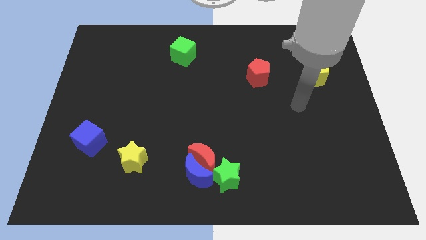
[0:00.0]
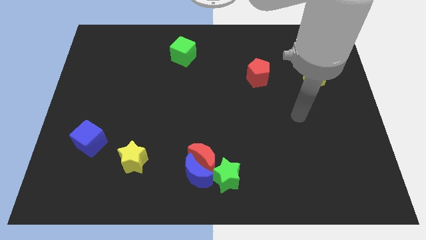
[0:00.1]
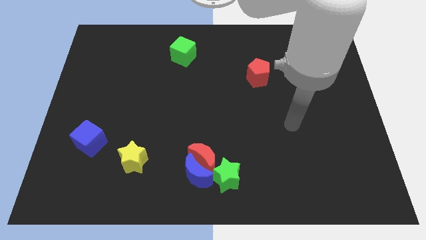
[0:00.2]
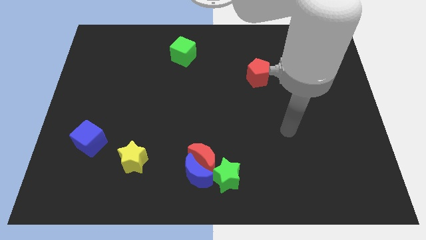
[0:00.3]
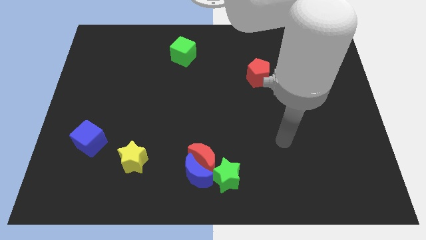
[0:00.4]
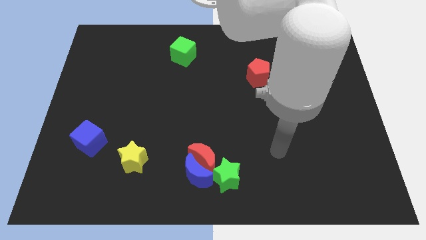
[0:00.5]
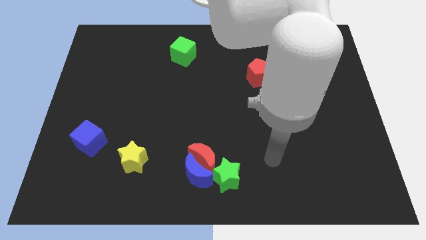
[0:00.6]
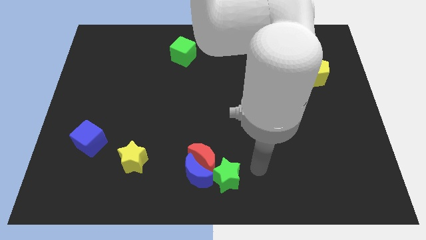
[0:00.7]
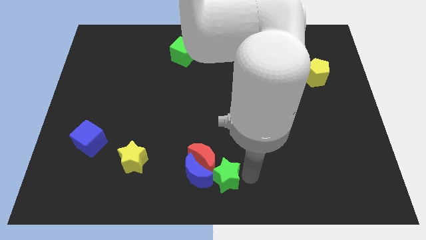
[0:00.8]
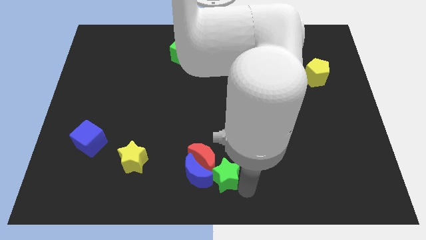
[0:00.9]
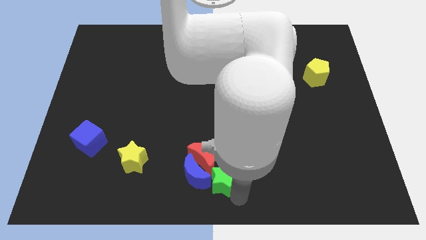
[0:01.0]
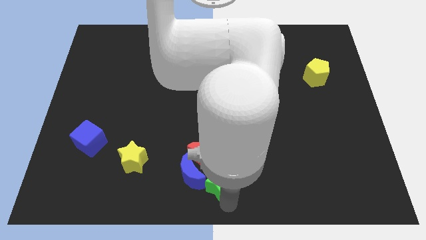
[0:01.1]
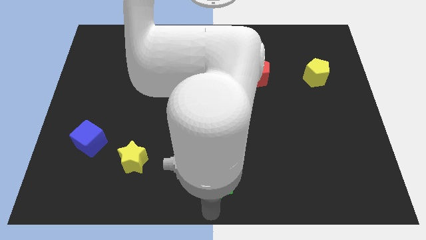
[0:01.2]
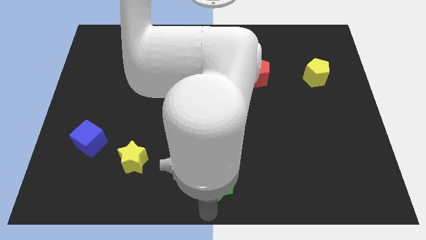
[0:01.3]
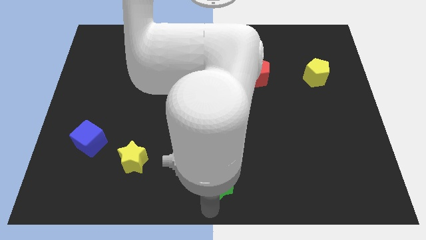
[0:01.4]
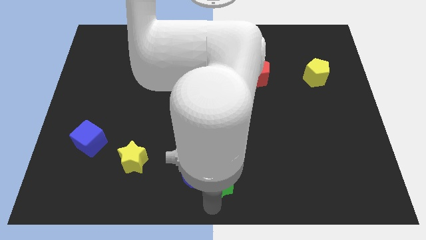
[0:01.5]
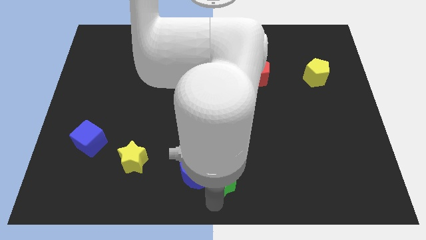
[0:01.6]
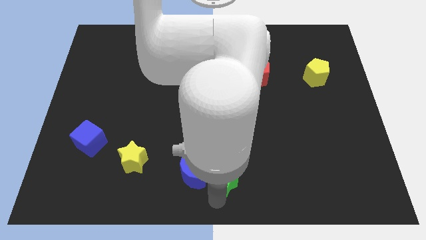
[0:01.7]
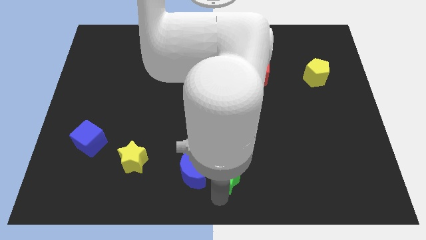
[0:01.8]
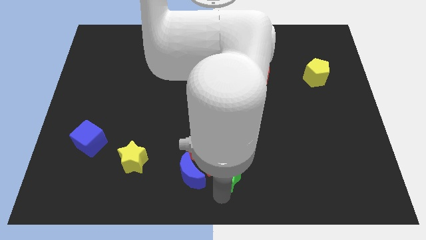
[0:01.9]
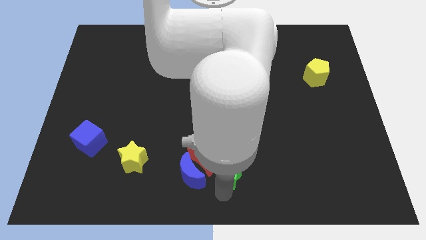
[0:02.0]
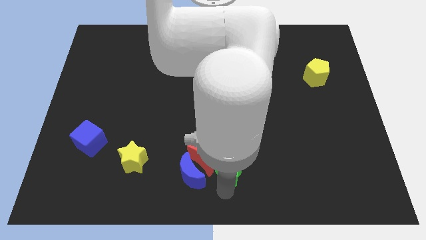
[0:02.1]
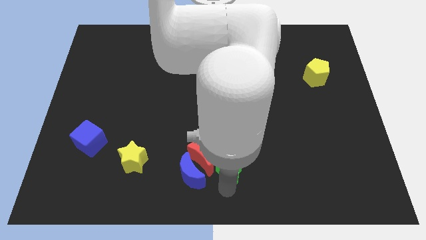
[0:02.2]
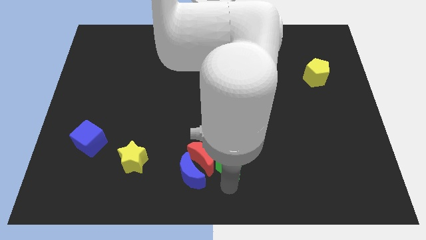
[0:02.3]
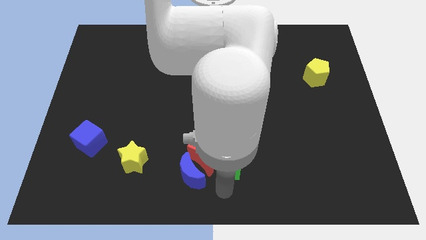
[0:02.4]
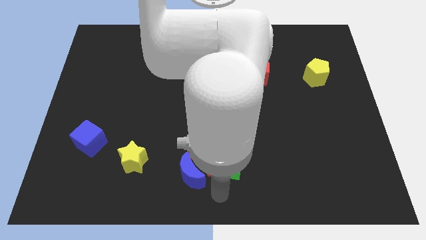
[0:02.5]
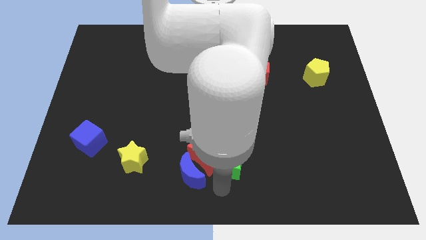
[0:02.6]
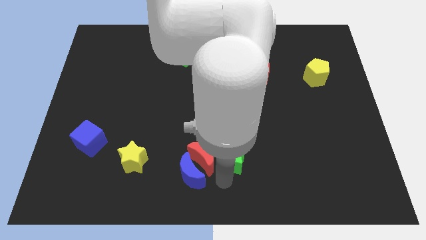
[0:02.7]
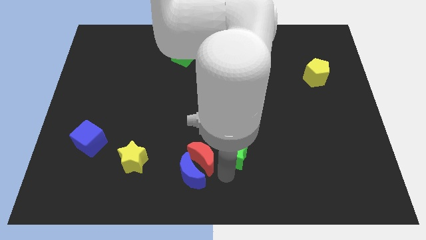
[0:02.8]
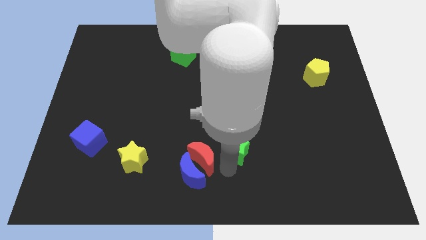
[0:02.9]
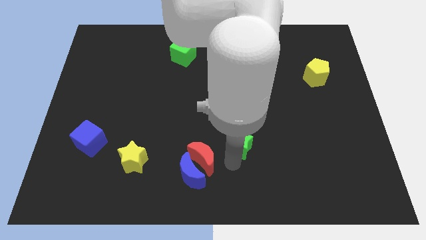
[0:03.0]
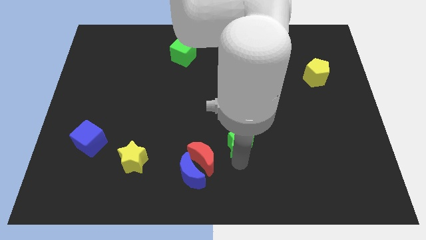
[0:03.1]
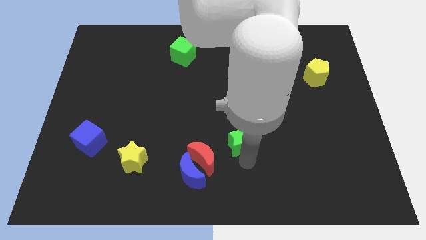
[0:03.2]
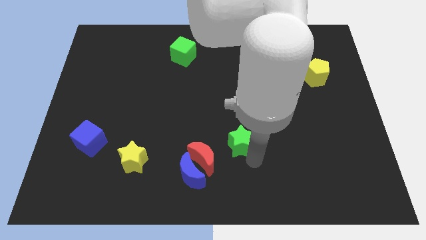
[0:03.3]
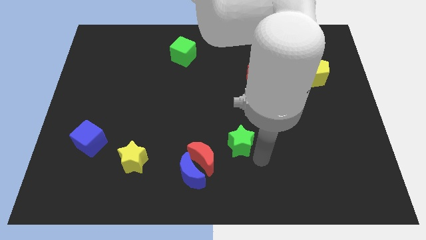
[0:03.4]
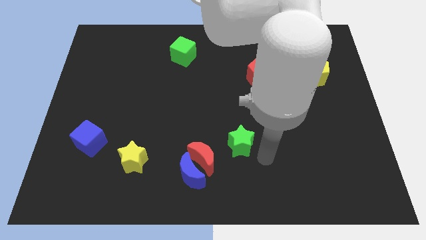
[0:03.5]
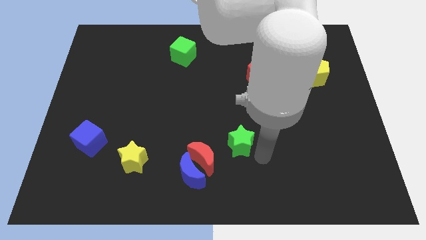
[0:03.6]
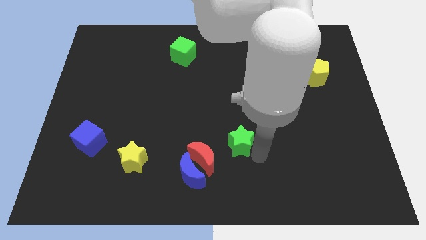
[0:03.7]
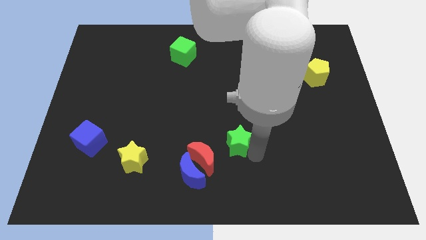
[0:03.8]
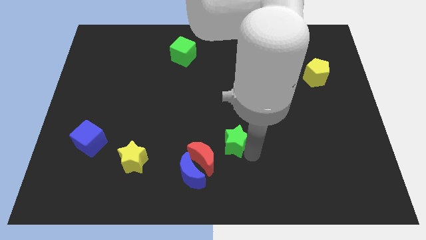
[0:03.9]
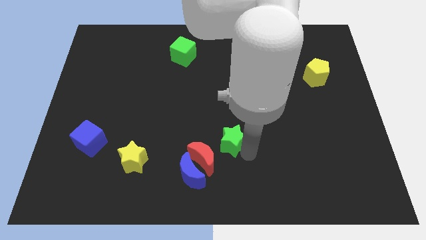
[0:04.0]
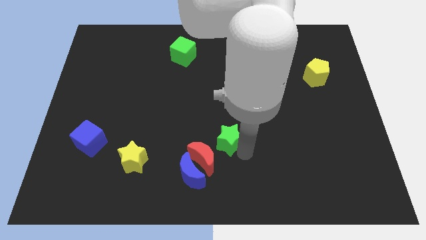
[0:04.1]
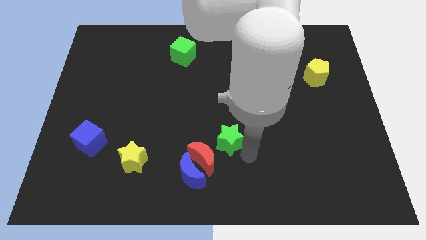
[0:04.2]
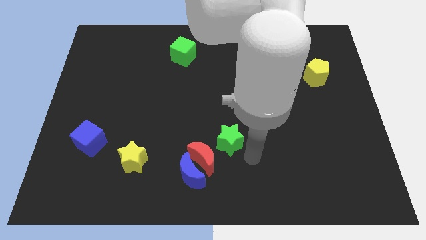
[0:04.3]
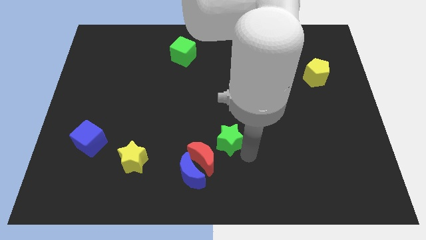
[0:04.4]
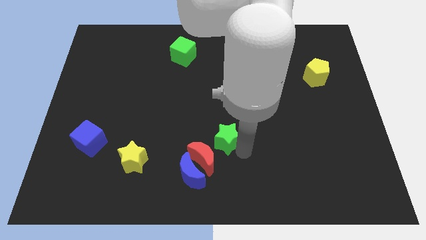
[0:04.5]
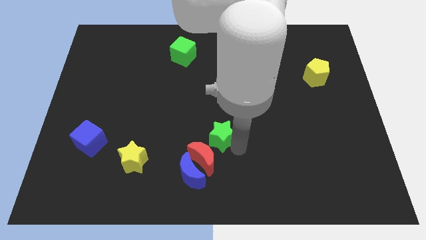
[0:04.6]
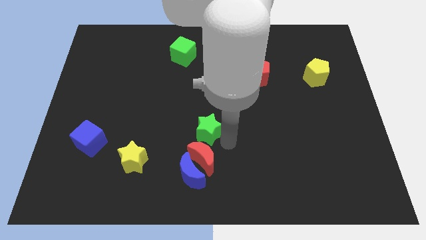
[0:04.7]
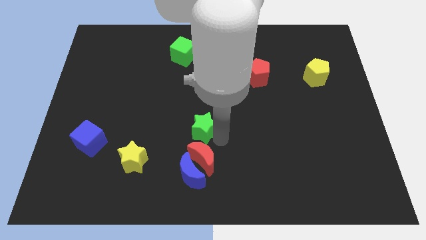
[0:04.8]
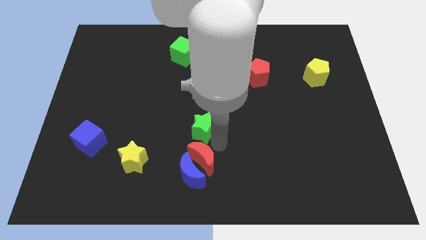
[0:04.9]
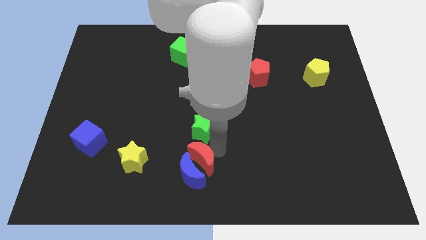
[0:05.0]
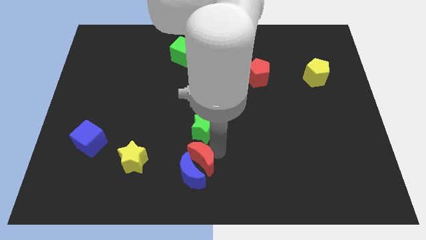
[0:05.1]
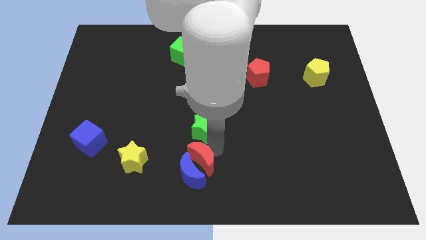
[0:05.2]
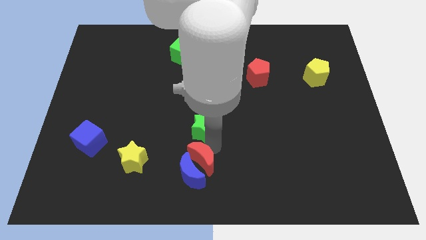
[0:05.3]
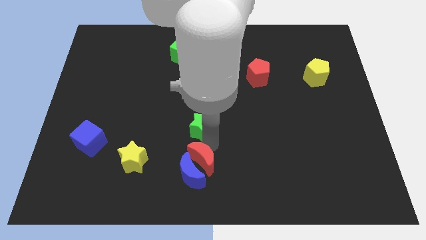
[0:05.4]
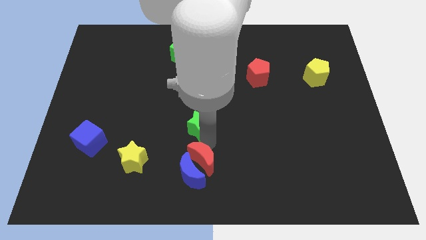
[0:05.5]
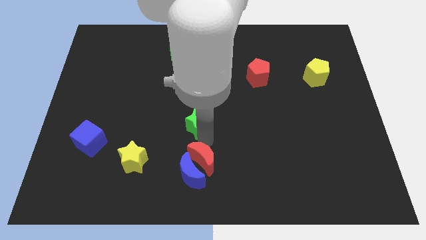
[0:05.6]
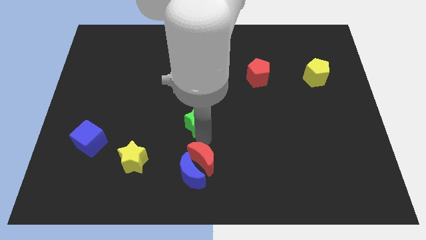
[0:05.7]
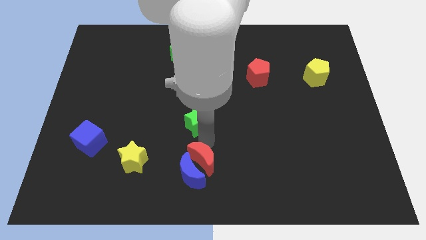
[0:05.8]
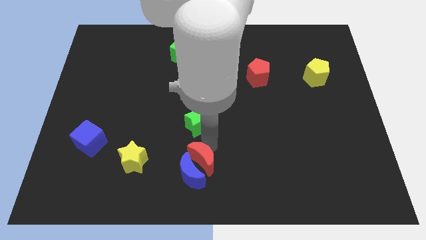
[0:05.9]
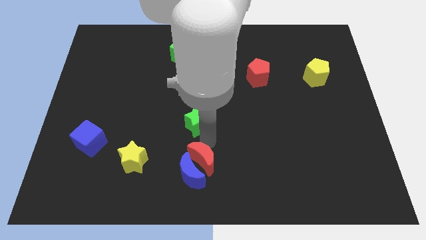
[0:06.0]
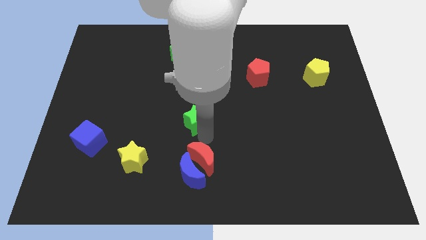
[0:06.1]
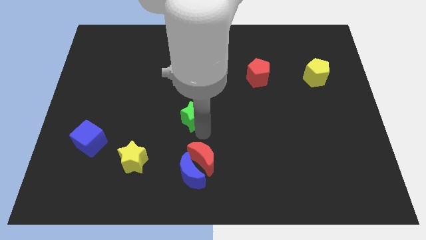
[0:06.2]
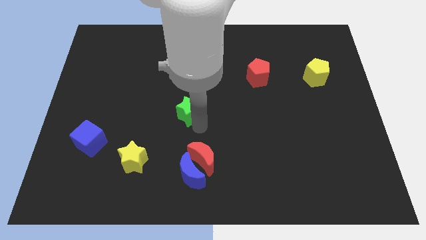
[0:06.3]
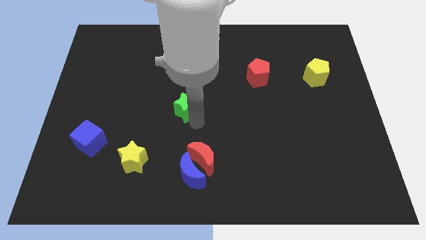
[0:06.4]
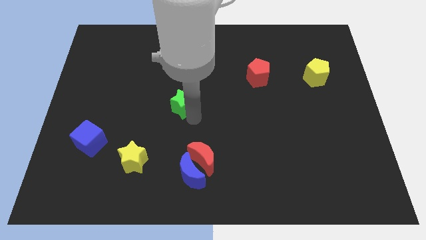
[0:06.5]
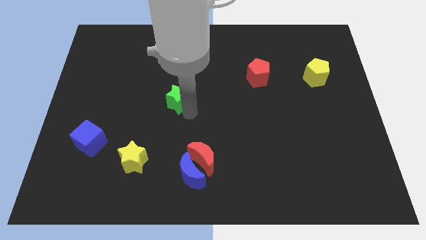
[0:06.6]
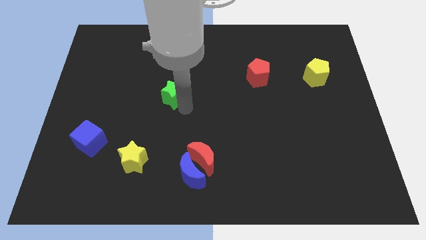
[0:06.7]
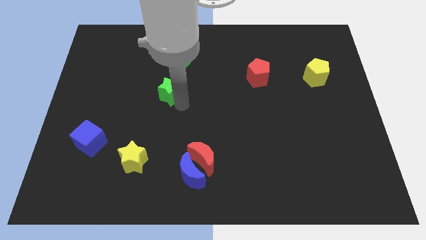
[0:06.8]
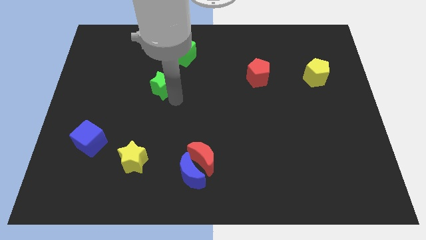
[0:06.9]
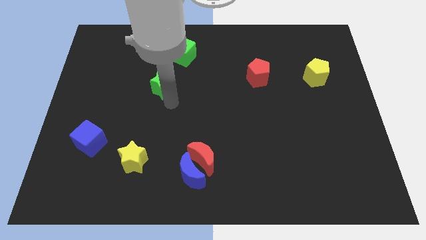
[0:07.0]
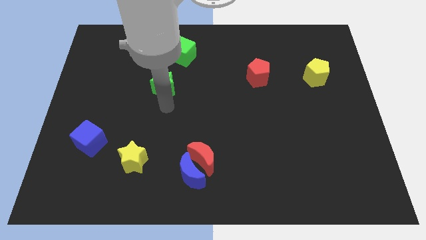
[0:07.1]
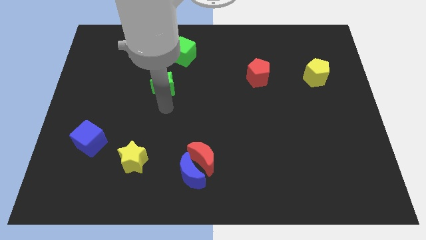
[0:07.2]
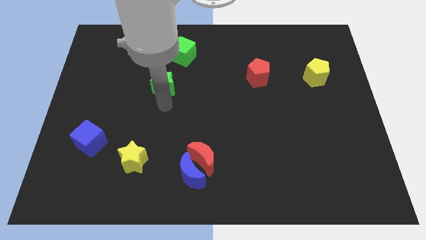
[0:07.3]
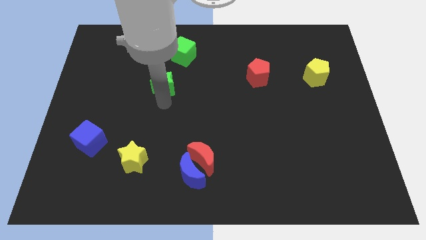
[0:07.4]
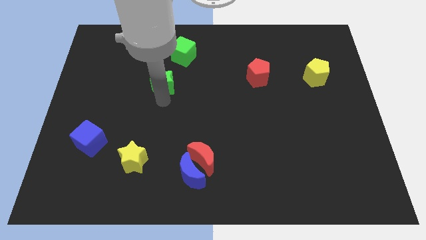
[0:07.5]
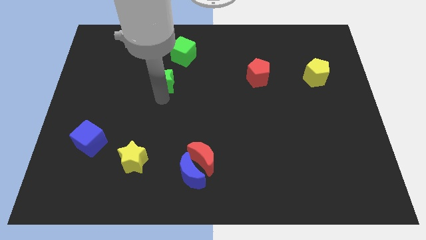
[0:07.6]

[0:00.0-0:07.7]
move the green star to the bottom left side of the green cube
